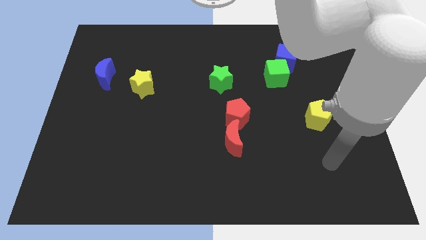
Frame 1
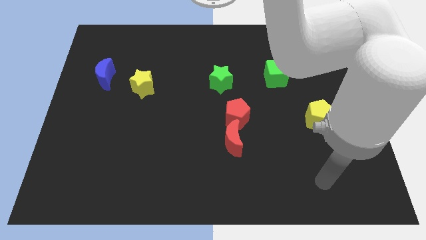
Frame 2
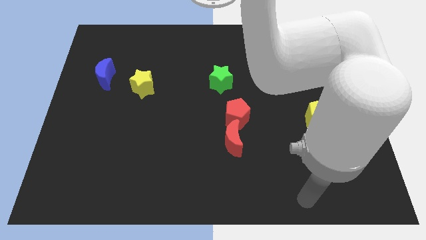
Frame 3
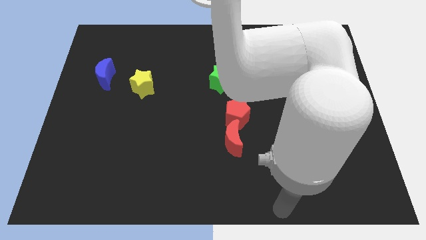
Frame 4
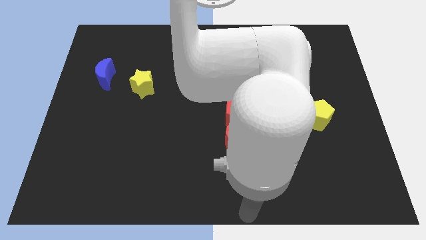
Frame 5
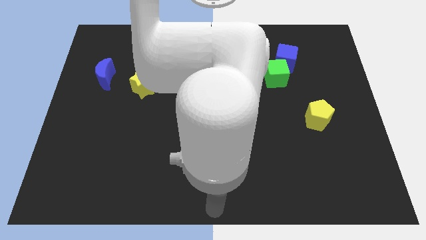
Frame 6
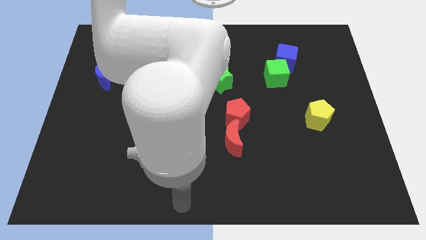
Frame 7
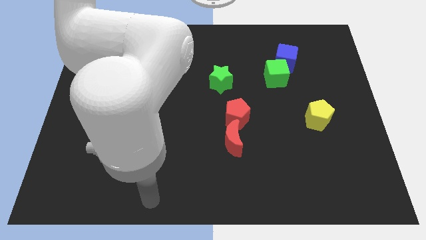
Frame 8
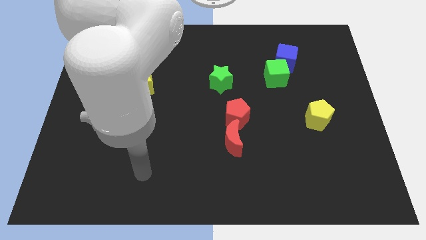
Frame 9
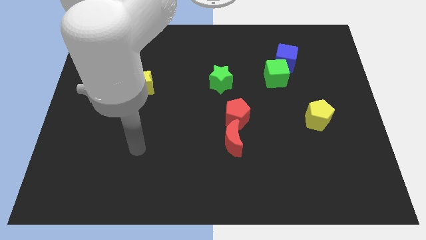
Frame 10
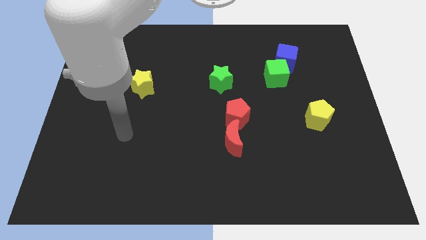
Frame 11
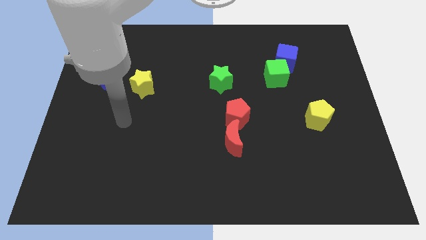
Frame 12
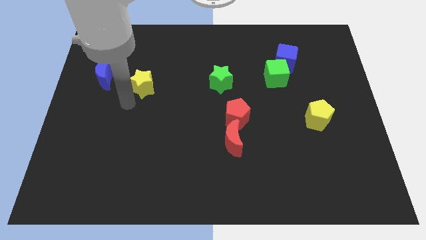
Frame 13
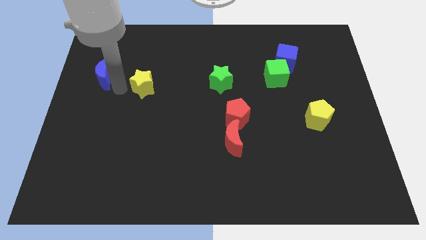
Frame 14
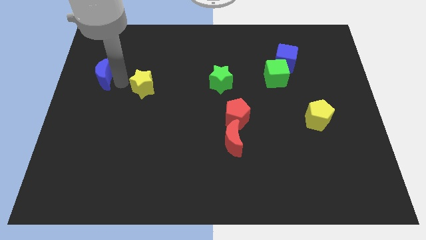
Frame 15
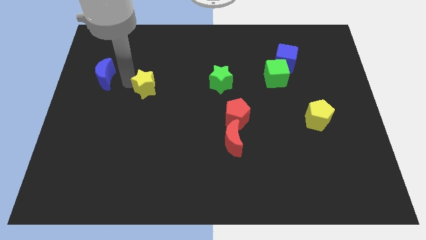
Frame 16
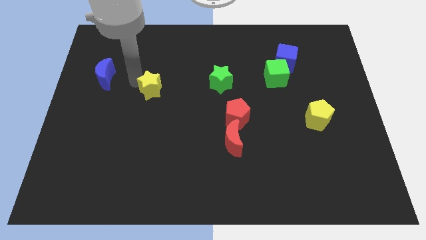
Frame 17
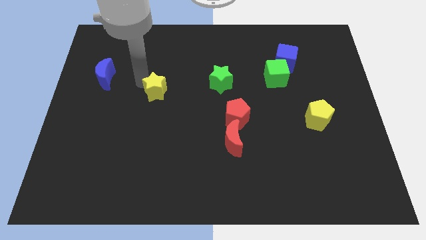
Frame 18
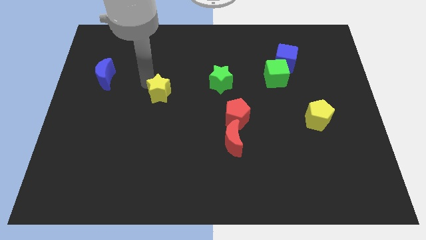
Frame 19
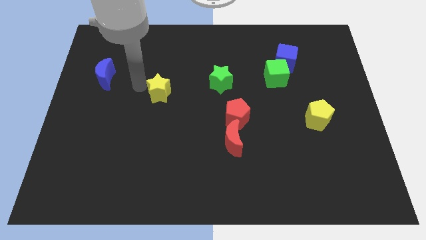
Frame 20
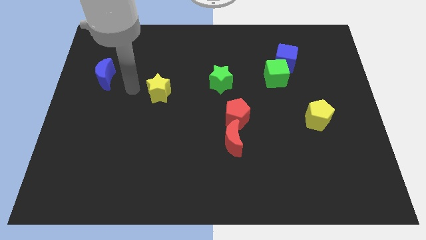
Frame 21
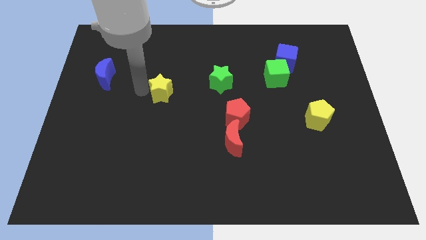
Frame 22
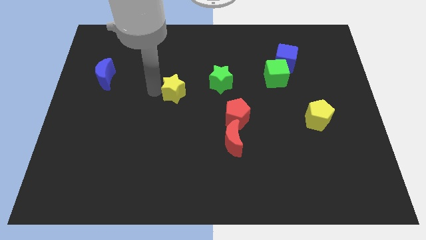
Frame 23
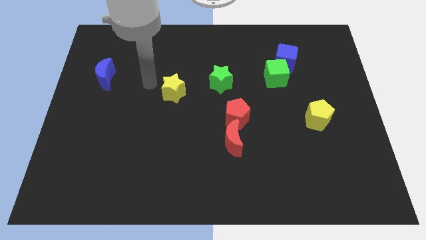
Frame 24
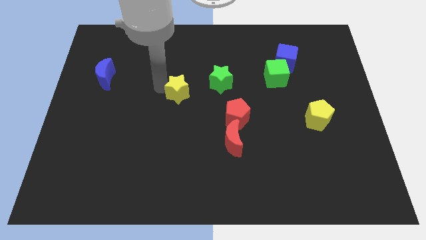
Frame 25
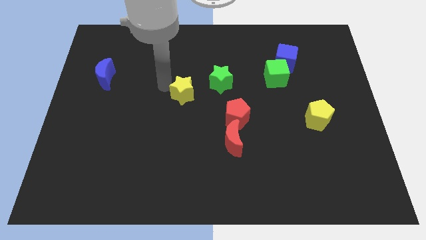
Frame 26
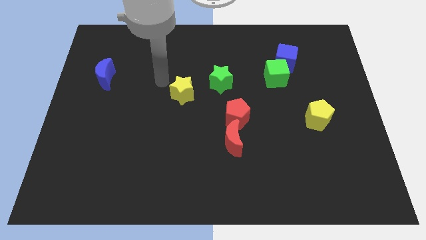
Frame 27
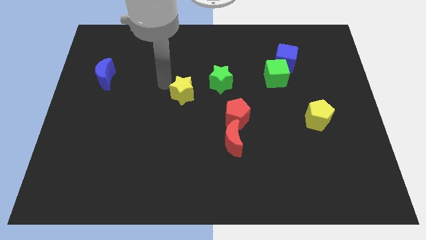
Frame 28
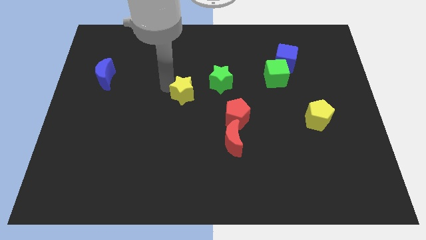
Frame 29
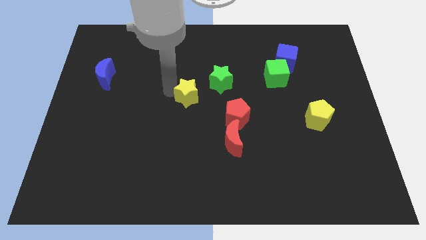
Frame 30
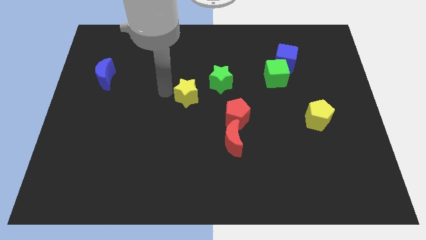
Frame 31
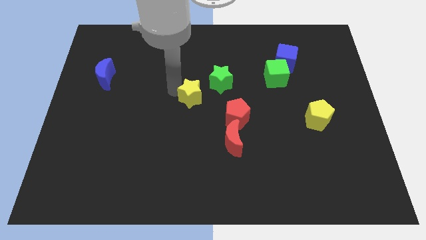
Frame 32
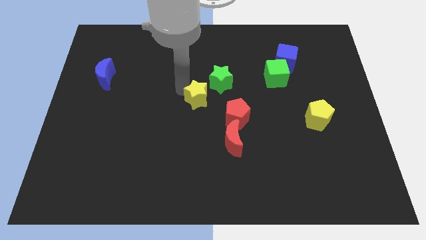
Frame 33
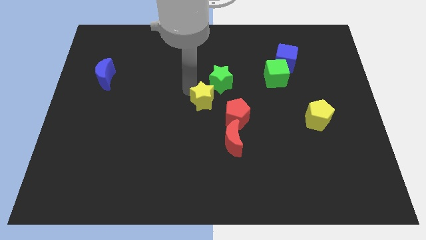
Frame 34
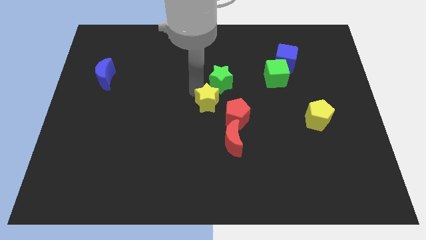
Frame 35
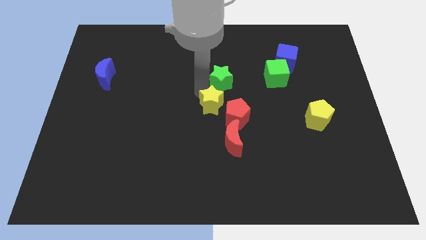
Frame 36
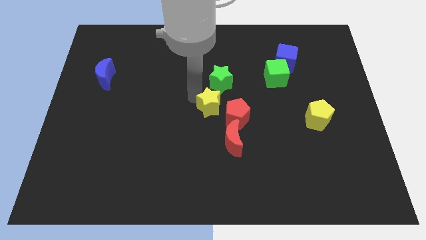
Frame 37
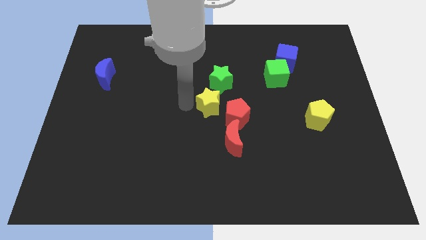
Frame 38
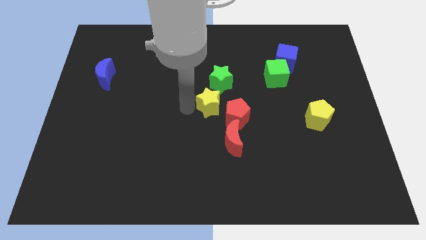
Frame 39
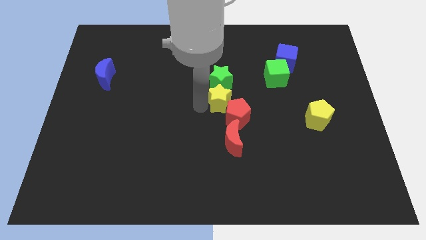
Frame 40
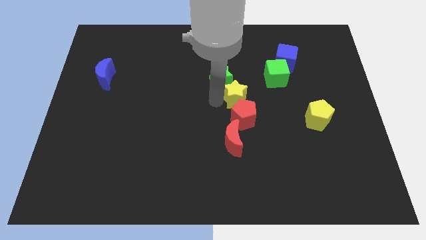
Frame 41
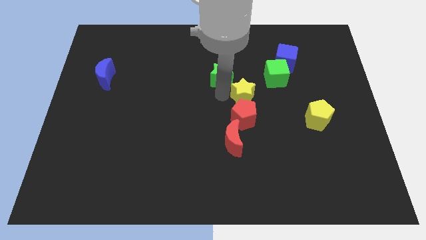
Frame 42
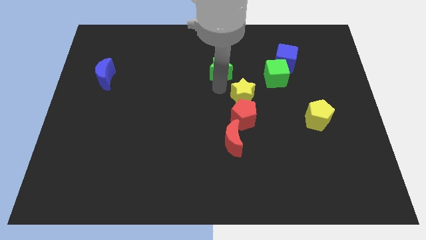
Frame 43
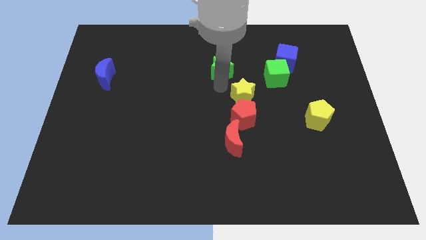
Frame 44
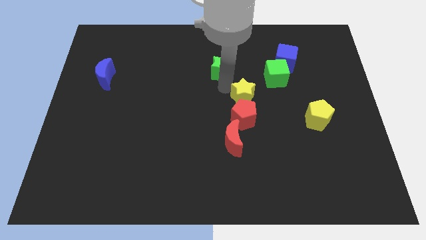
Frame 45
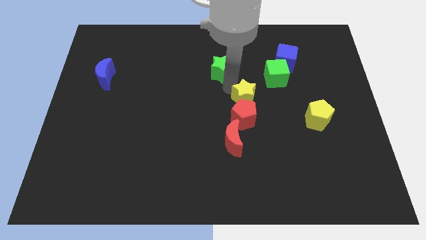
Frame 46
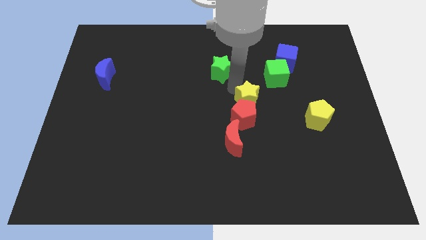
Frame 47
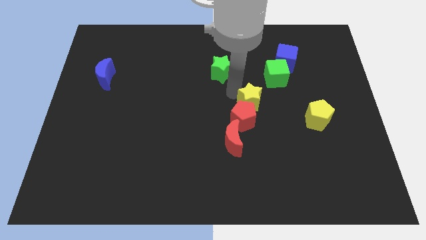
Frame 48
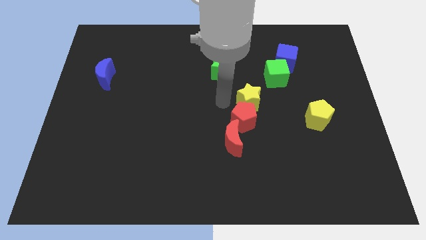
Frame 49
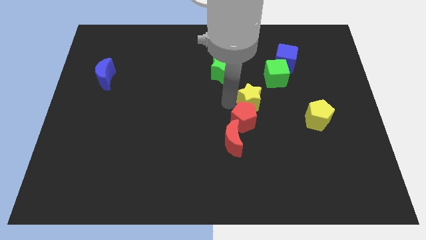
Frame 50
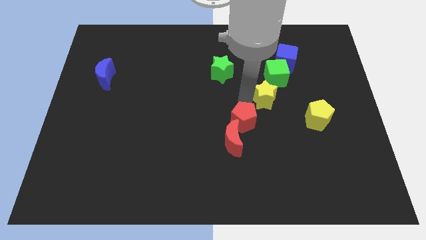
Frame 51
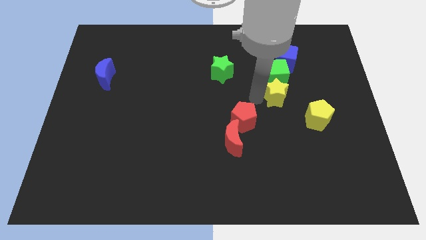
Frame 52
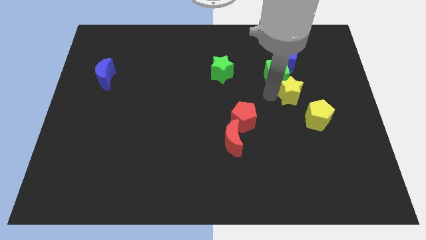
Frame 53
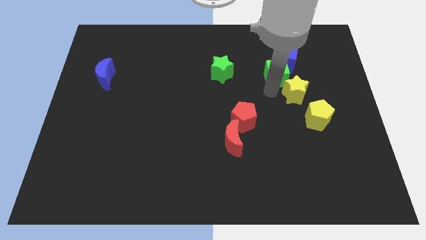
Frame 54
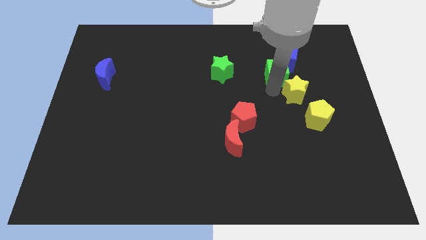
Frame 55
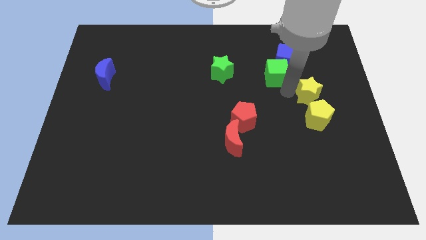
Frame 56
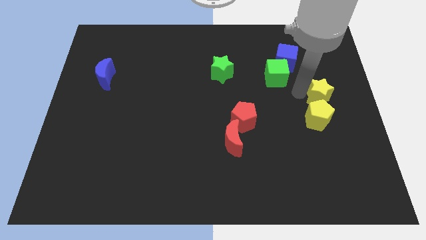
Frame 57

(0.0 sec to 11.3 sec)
slide the yellow star to the right side of the board
